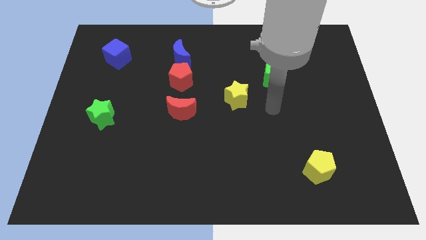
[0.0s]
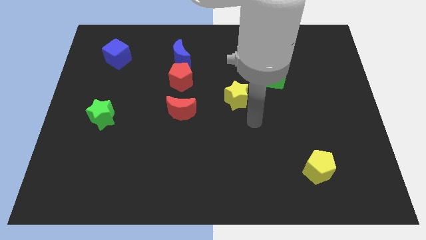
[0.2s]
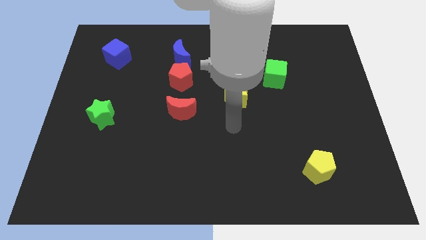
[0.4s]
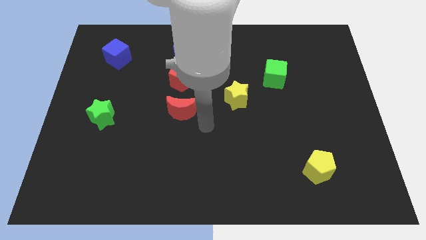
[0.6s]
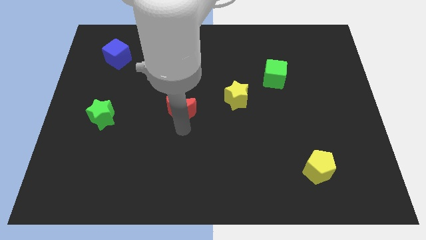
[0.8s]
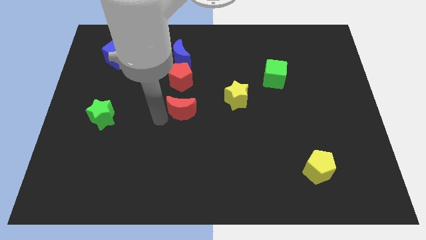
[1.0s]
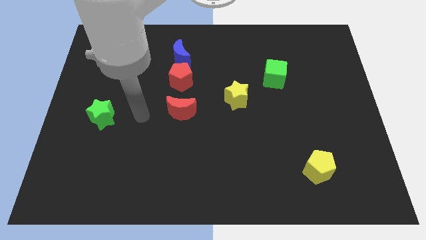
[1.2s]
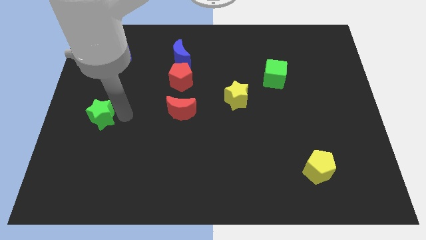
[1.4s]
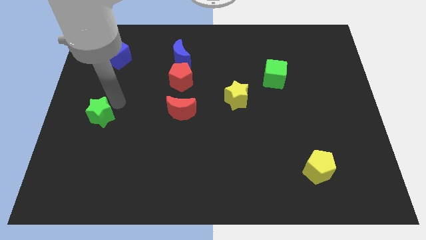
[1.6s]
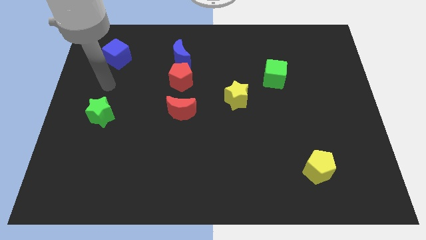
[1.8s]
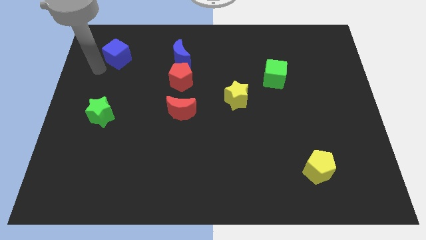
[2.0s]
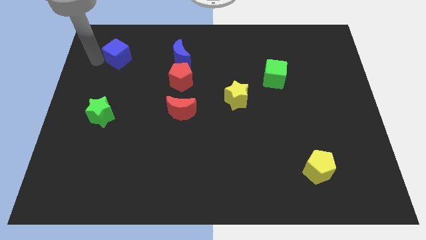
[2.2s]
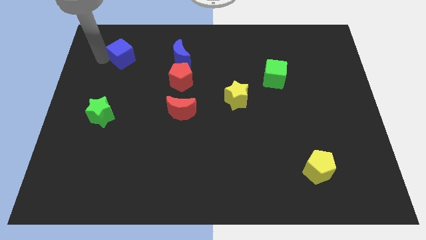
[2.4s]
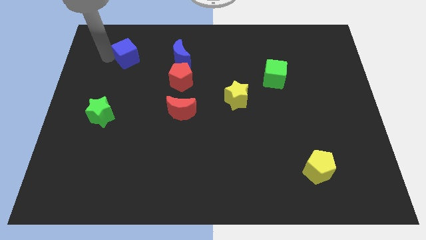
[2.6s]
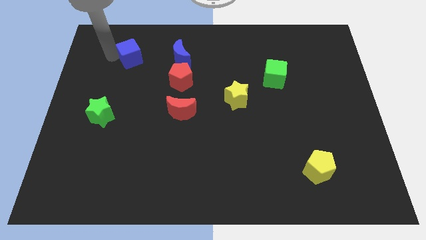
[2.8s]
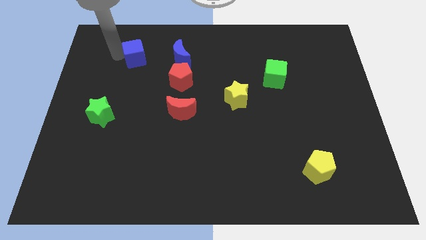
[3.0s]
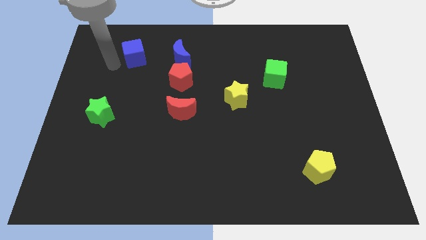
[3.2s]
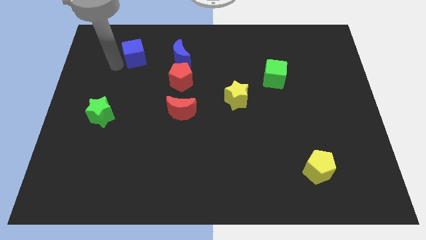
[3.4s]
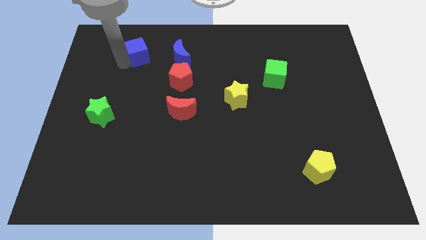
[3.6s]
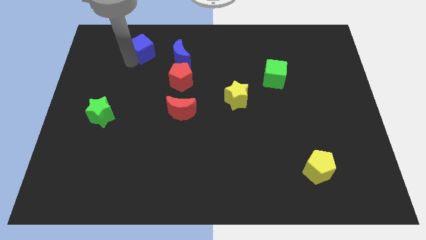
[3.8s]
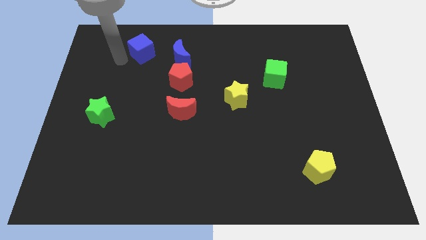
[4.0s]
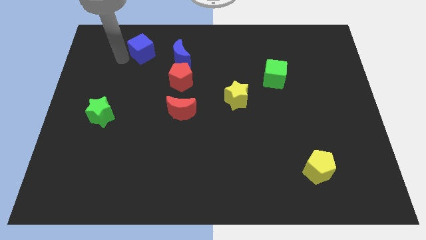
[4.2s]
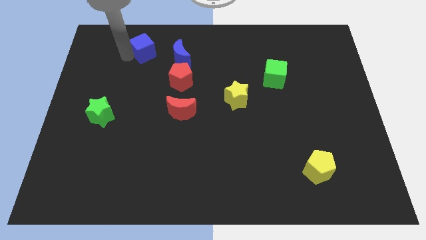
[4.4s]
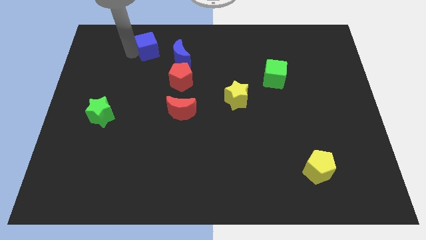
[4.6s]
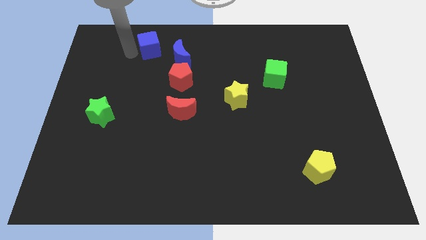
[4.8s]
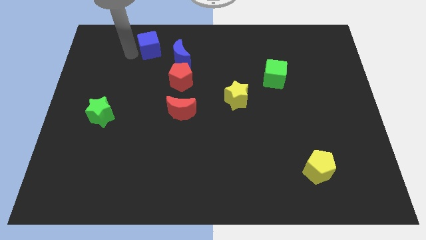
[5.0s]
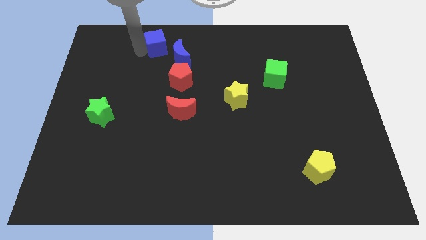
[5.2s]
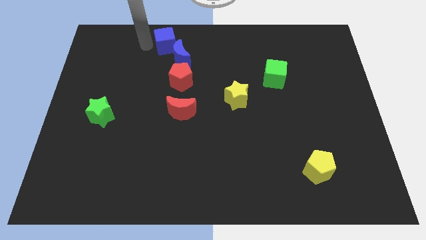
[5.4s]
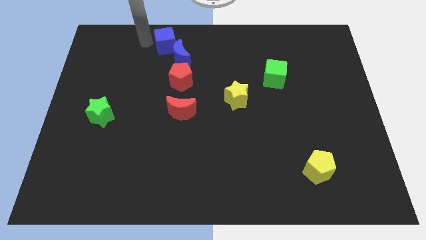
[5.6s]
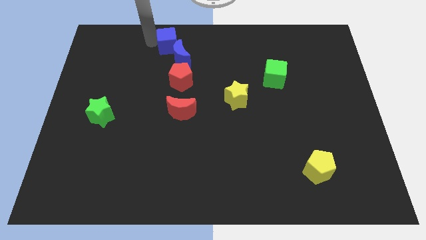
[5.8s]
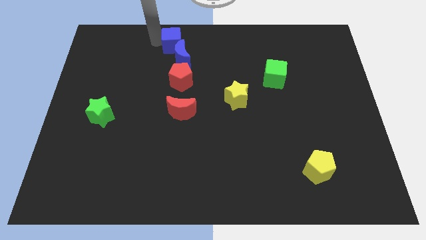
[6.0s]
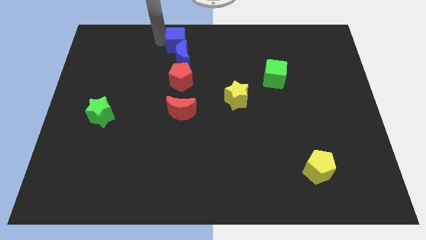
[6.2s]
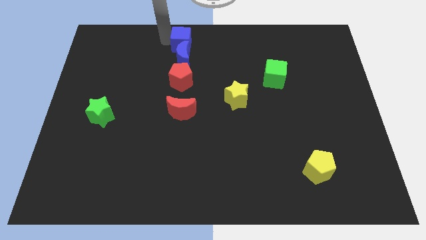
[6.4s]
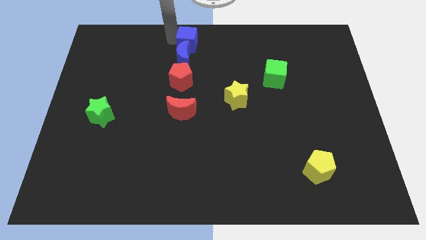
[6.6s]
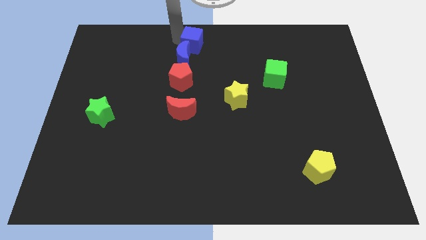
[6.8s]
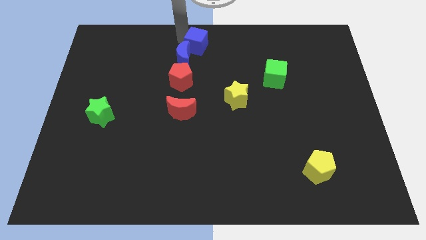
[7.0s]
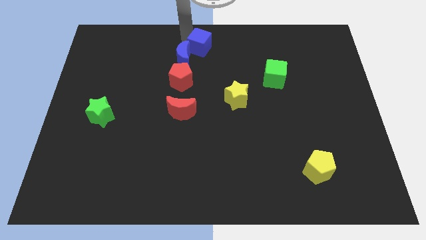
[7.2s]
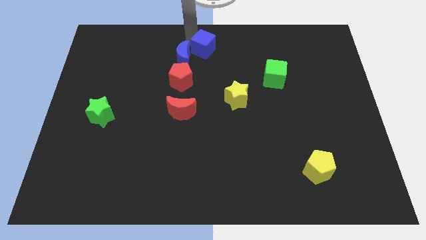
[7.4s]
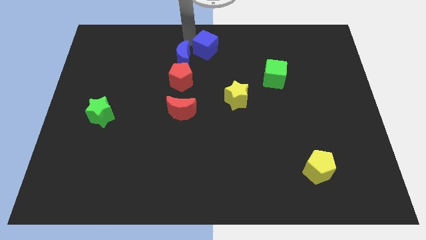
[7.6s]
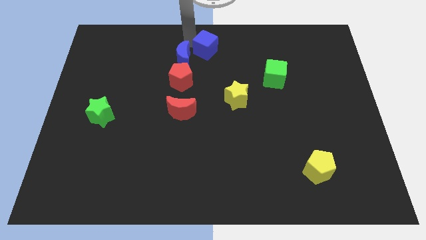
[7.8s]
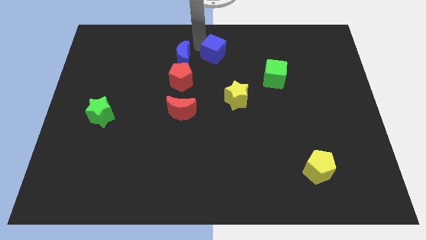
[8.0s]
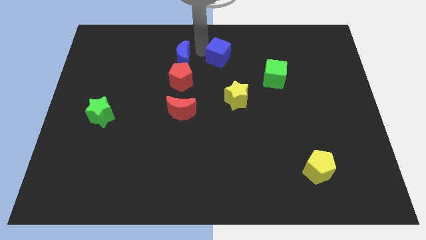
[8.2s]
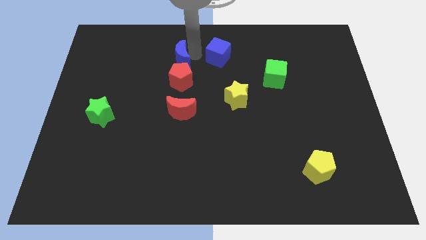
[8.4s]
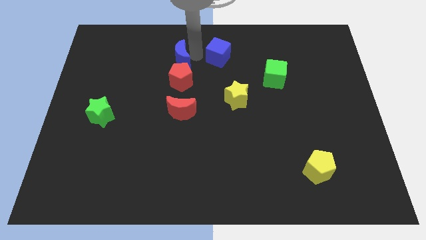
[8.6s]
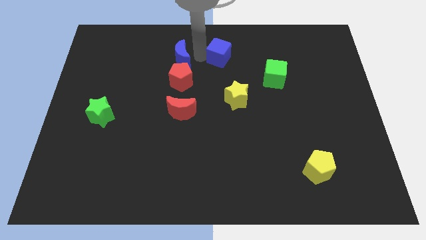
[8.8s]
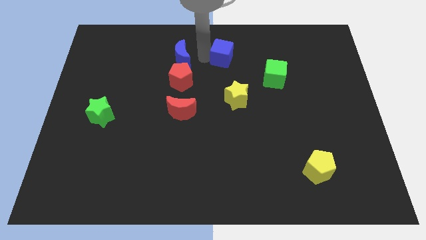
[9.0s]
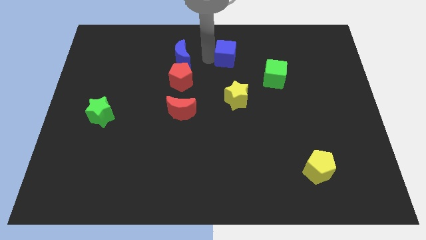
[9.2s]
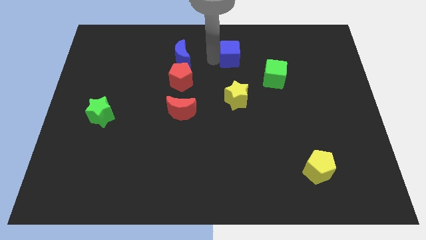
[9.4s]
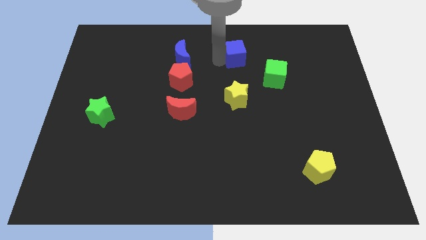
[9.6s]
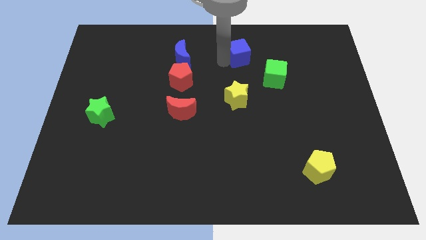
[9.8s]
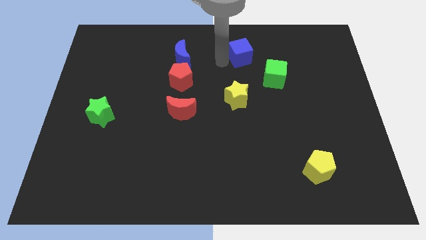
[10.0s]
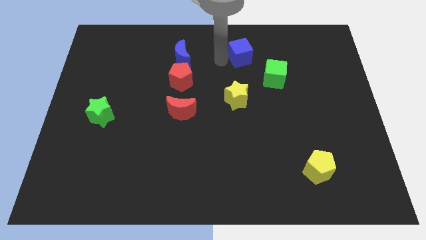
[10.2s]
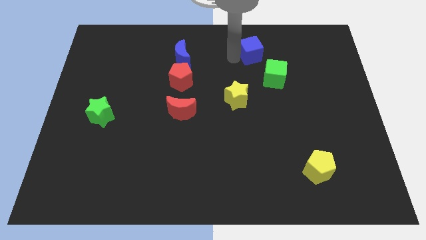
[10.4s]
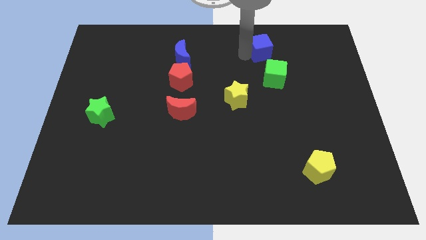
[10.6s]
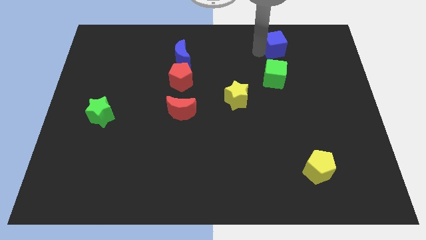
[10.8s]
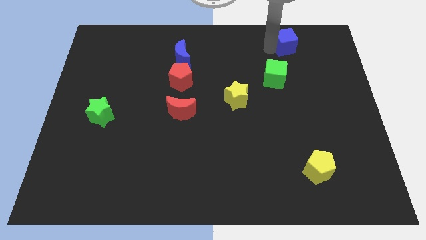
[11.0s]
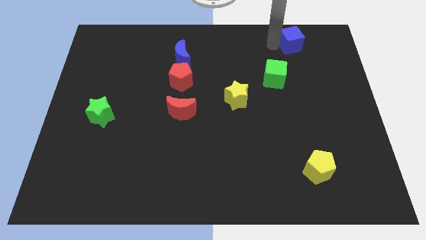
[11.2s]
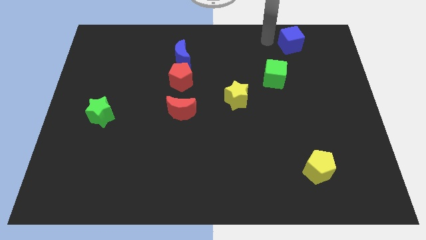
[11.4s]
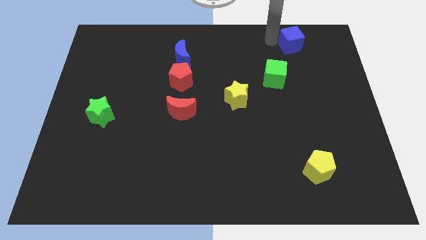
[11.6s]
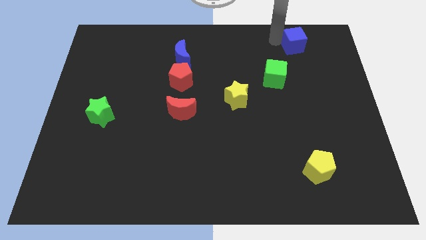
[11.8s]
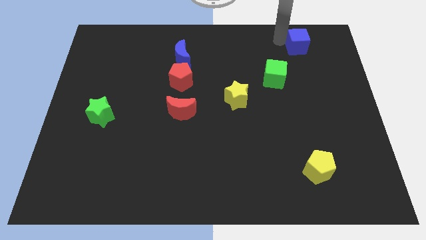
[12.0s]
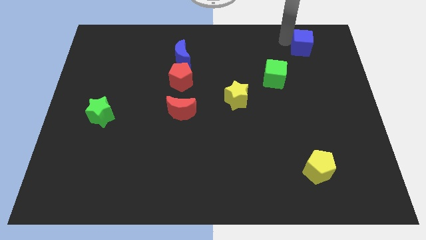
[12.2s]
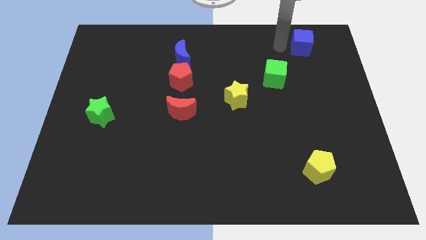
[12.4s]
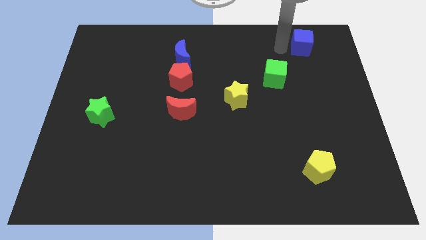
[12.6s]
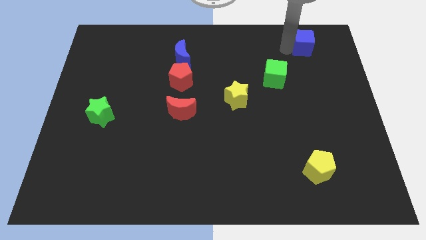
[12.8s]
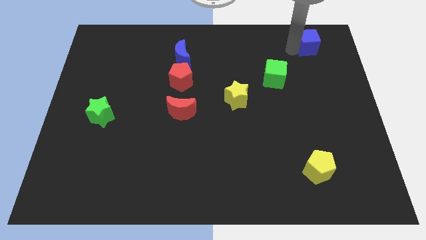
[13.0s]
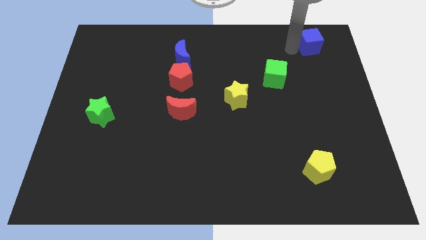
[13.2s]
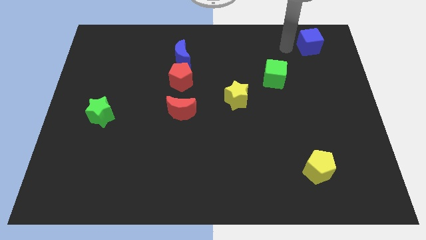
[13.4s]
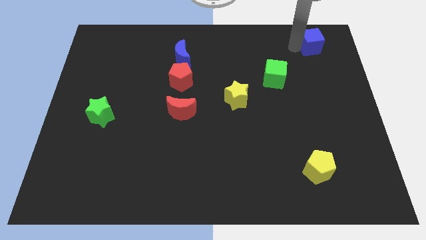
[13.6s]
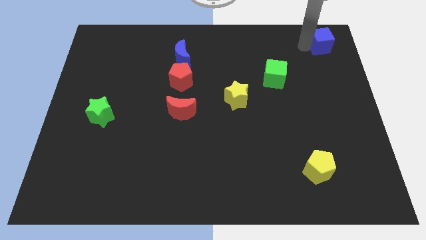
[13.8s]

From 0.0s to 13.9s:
slide the blue cube to the upper right corner
